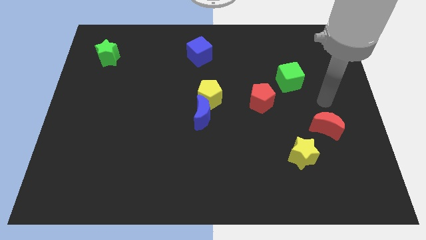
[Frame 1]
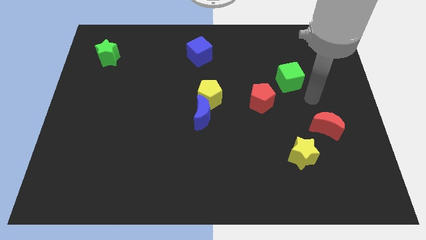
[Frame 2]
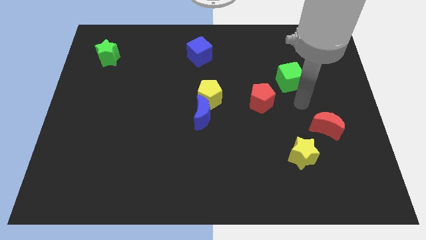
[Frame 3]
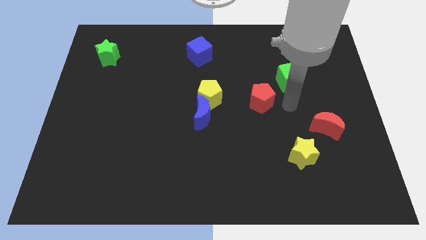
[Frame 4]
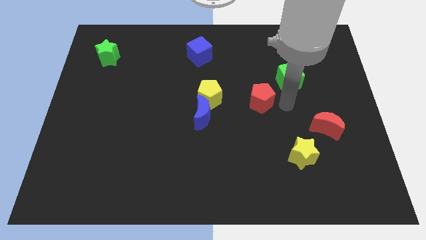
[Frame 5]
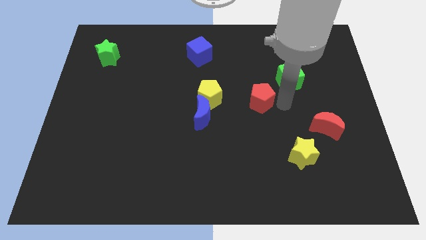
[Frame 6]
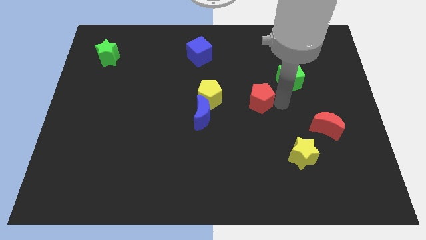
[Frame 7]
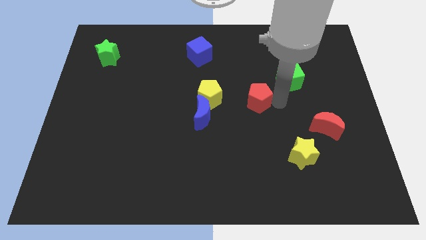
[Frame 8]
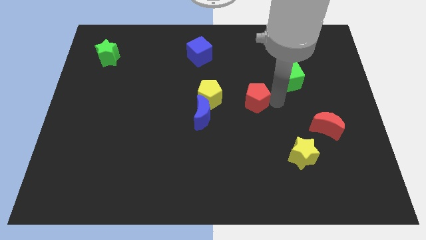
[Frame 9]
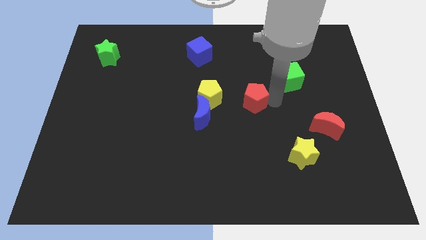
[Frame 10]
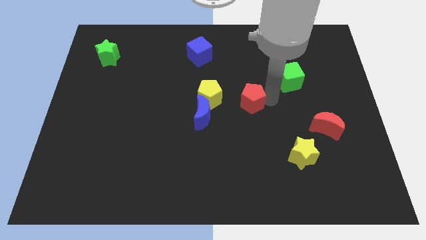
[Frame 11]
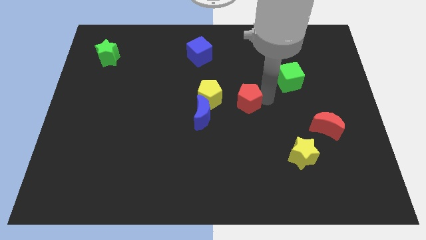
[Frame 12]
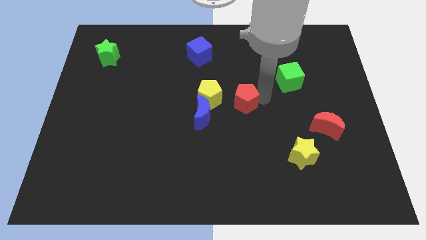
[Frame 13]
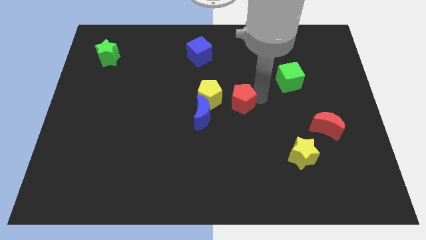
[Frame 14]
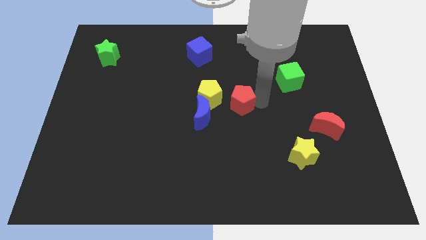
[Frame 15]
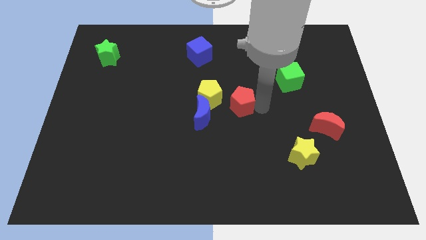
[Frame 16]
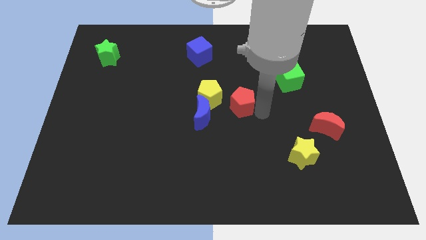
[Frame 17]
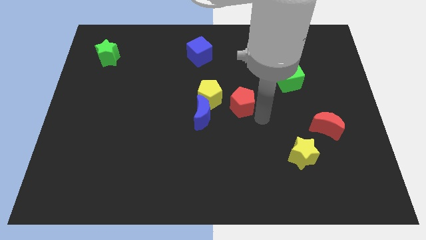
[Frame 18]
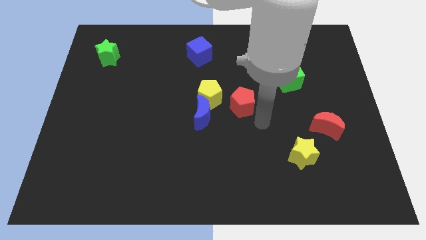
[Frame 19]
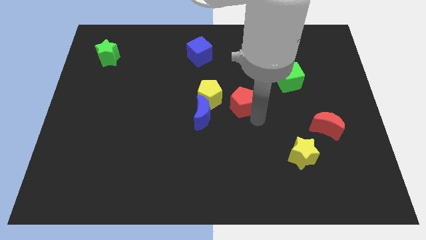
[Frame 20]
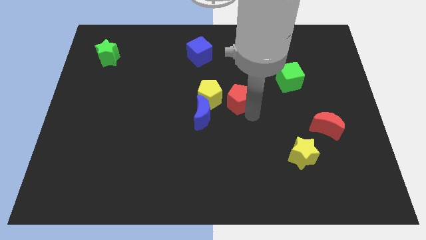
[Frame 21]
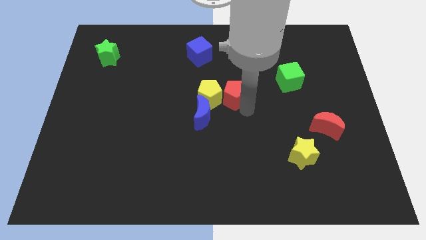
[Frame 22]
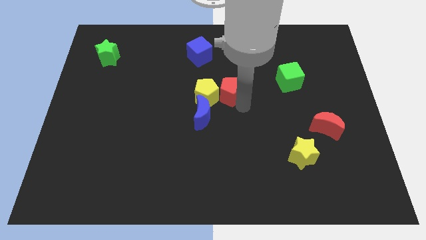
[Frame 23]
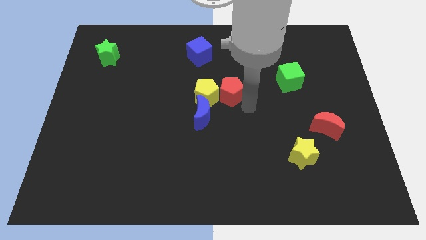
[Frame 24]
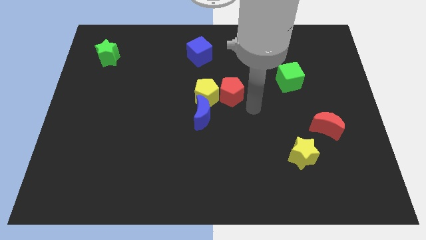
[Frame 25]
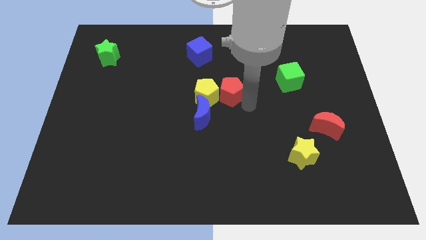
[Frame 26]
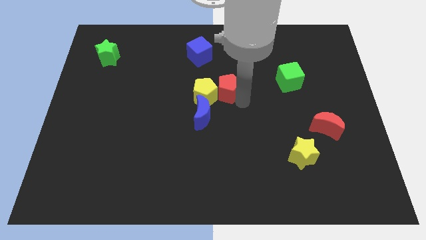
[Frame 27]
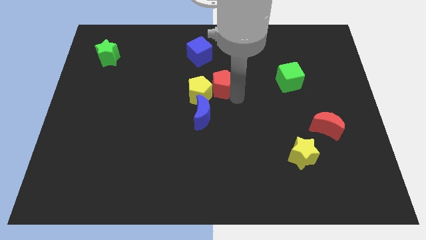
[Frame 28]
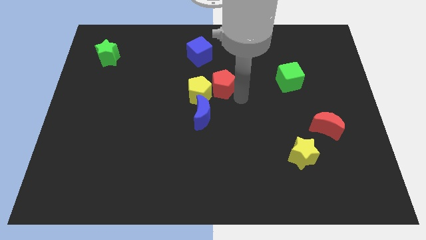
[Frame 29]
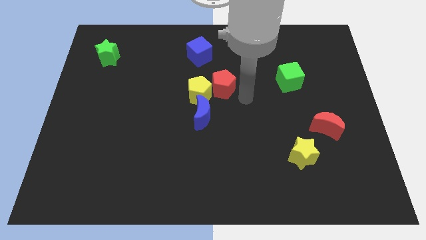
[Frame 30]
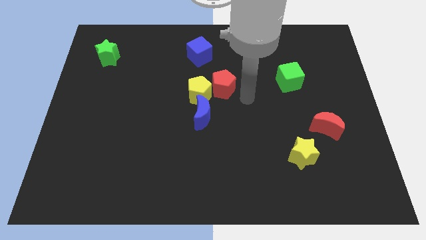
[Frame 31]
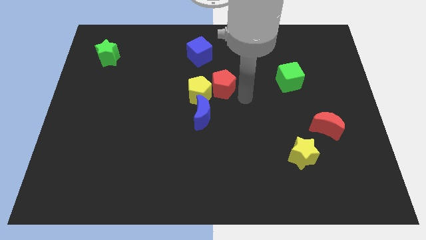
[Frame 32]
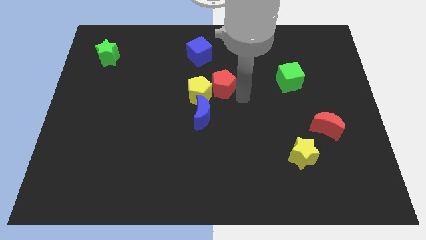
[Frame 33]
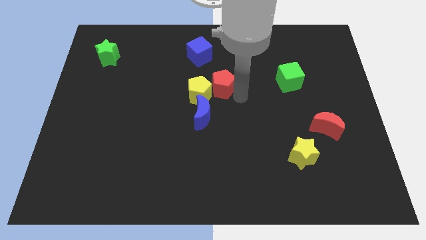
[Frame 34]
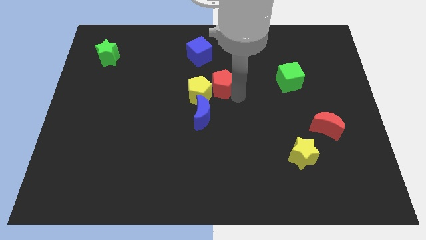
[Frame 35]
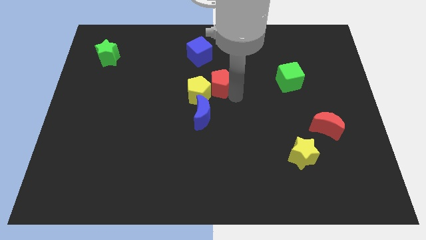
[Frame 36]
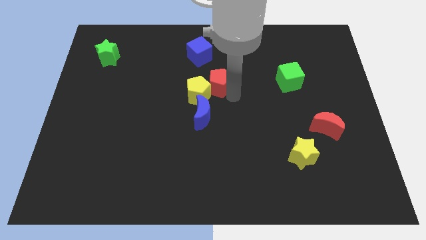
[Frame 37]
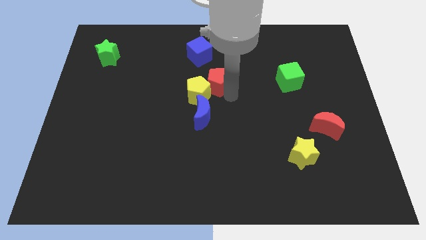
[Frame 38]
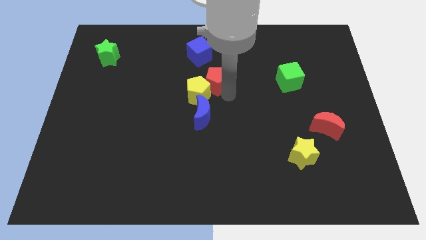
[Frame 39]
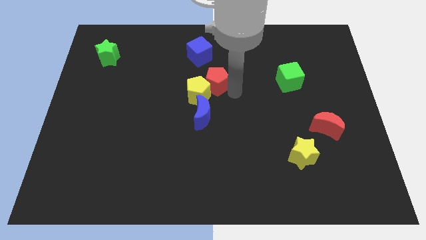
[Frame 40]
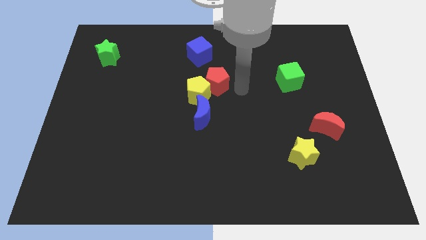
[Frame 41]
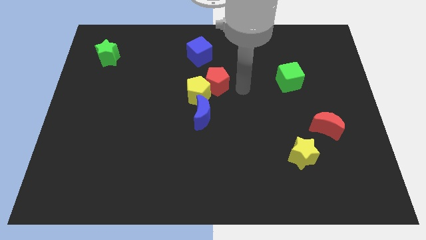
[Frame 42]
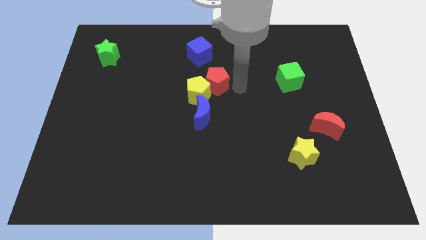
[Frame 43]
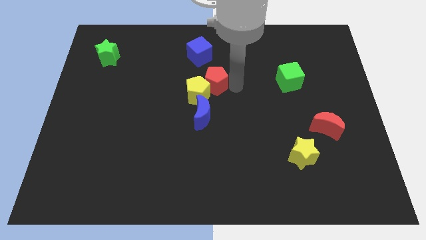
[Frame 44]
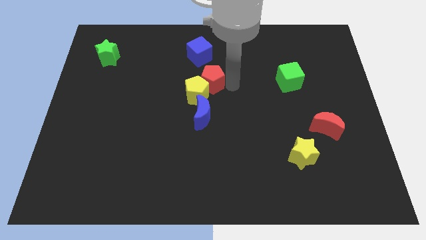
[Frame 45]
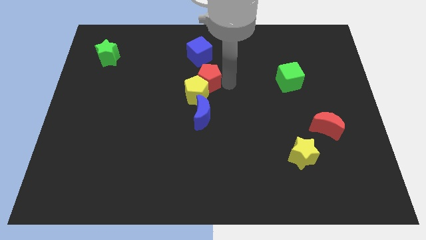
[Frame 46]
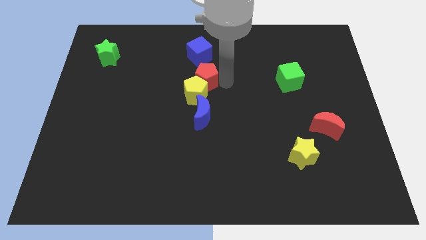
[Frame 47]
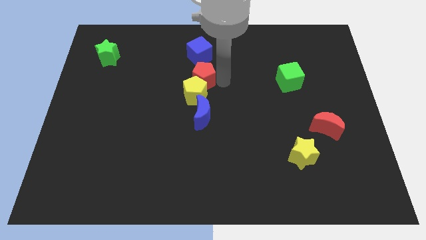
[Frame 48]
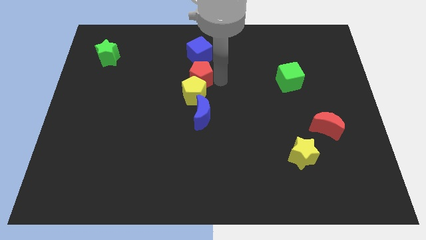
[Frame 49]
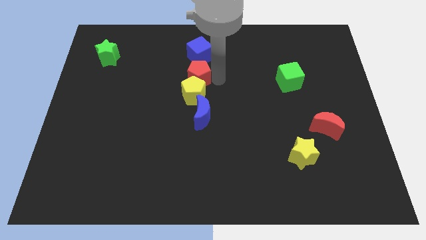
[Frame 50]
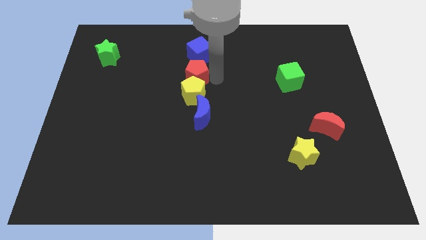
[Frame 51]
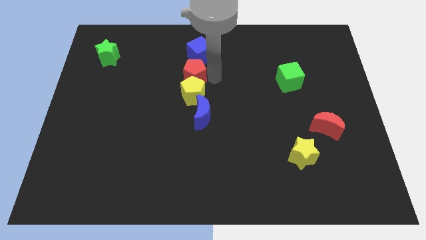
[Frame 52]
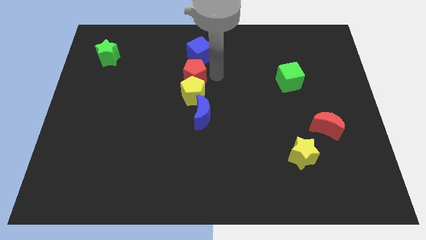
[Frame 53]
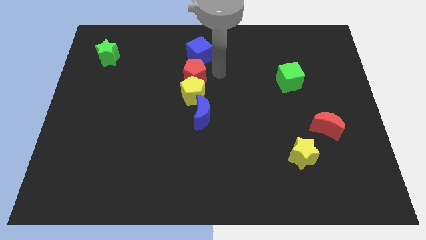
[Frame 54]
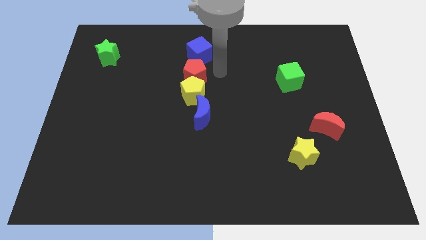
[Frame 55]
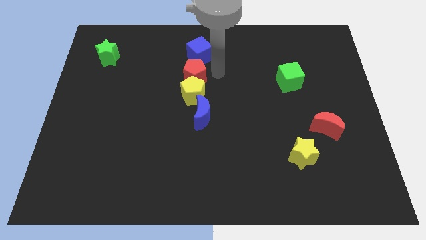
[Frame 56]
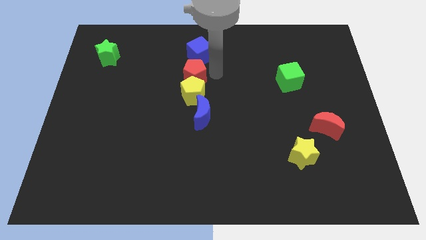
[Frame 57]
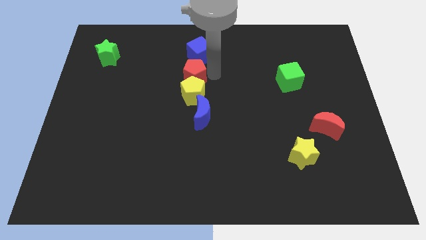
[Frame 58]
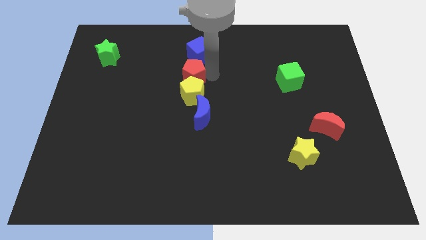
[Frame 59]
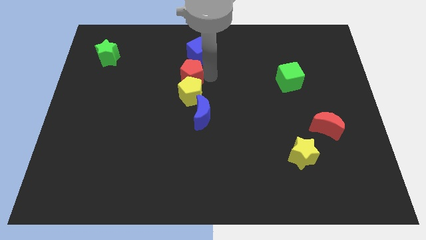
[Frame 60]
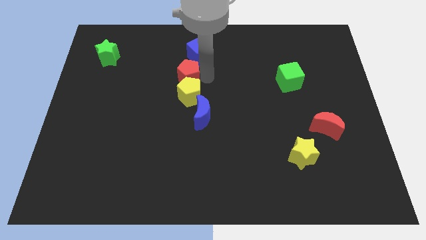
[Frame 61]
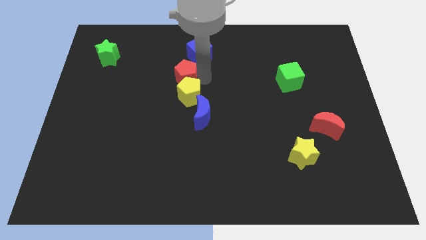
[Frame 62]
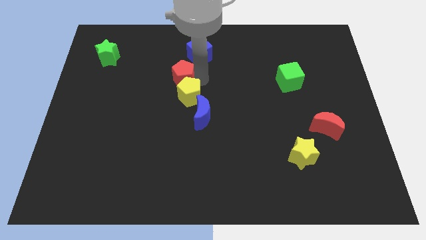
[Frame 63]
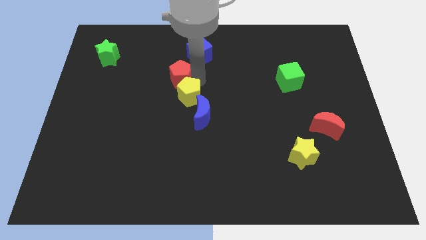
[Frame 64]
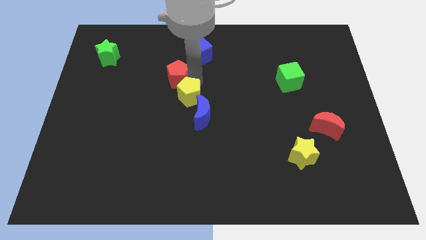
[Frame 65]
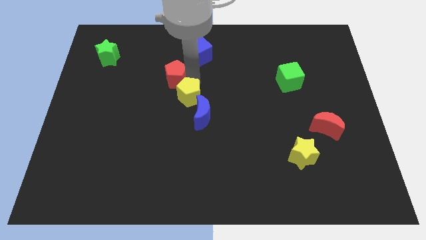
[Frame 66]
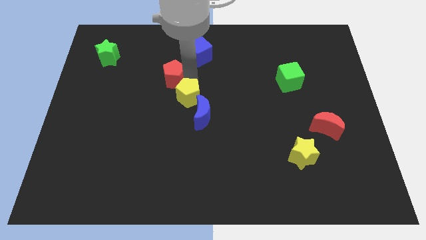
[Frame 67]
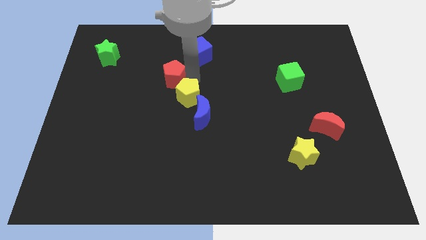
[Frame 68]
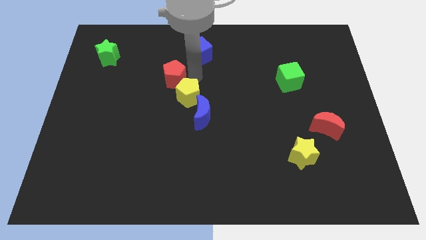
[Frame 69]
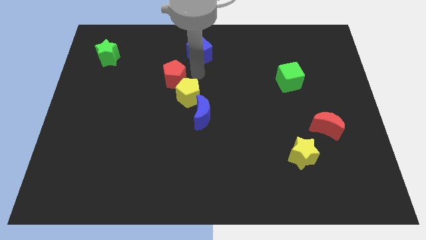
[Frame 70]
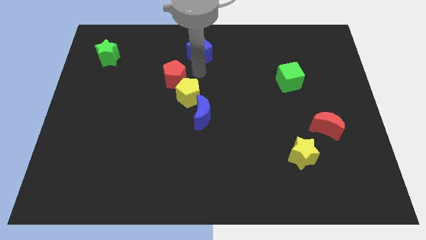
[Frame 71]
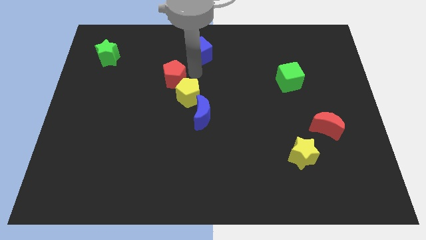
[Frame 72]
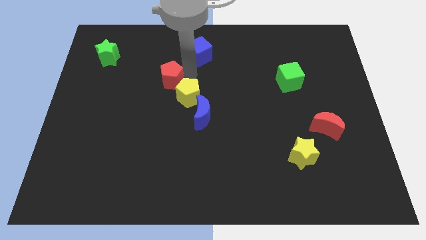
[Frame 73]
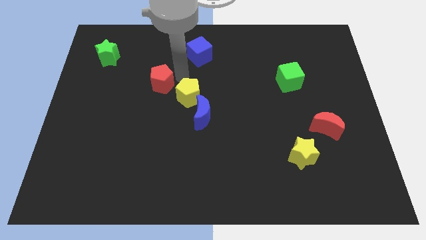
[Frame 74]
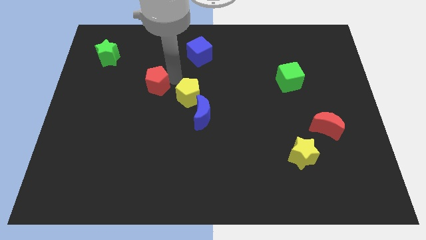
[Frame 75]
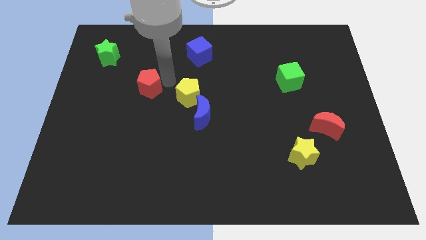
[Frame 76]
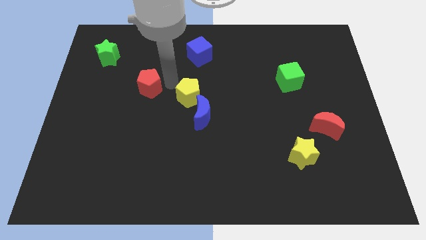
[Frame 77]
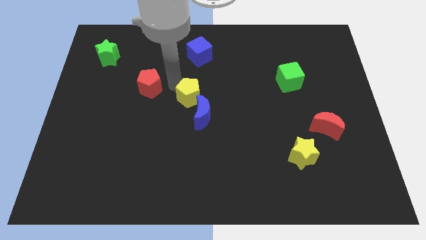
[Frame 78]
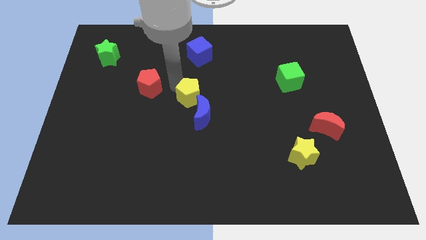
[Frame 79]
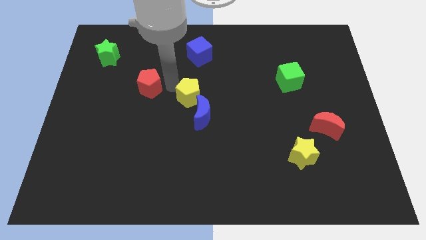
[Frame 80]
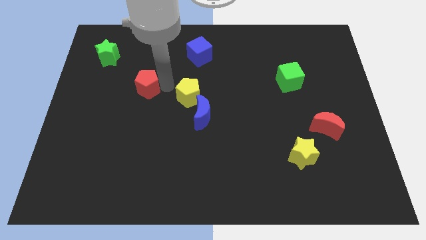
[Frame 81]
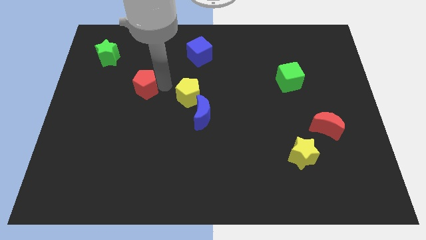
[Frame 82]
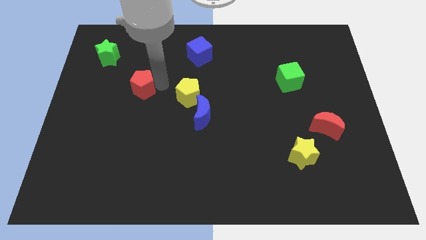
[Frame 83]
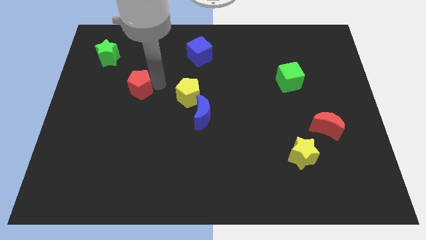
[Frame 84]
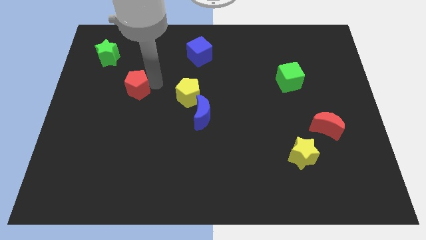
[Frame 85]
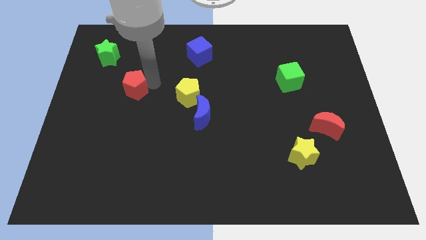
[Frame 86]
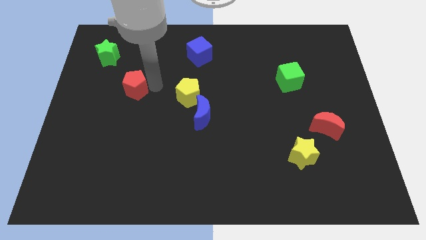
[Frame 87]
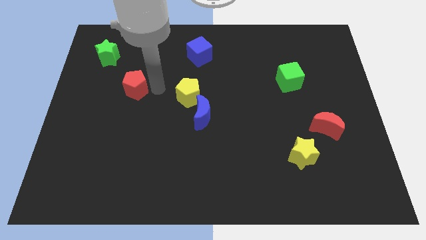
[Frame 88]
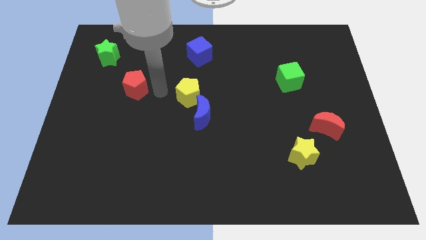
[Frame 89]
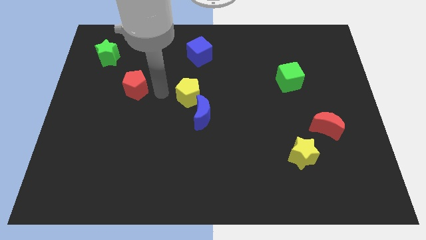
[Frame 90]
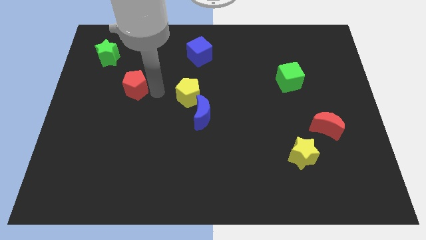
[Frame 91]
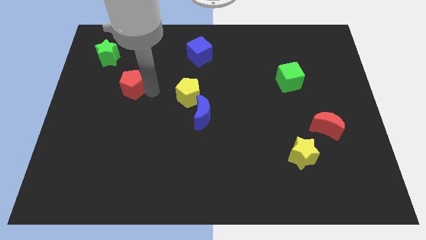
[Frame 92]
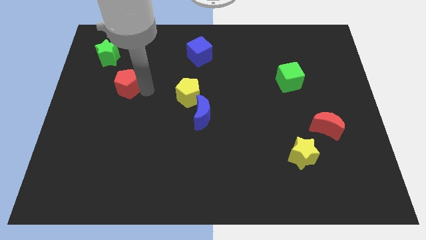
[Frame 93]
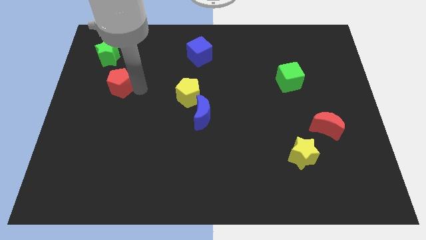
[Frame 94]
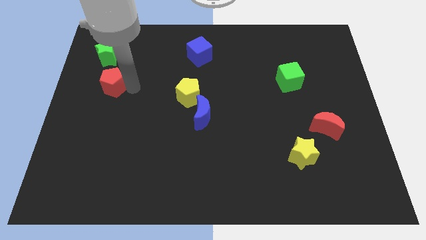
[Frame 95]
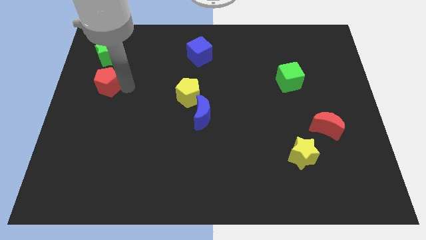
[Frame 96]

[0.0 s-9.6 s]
push the red pentagon to the center left
